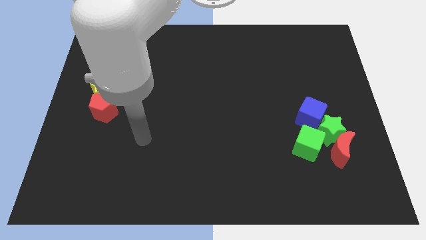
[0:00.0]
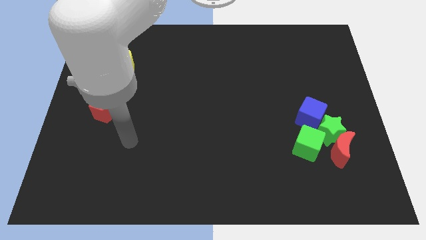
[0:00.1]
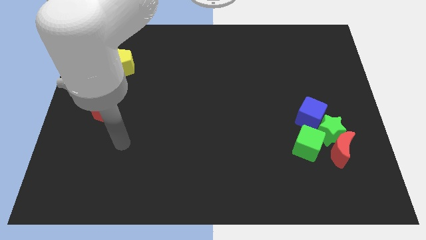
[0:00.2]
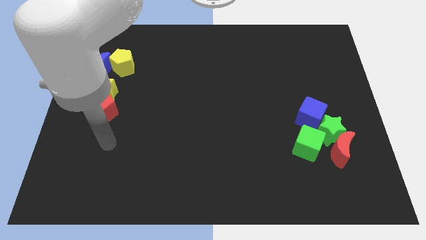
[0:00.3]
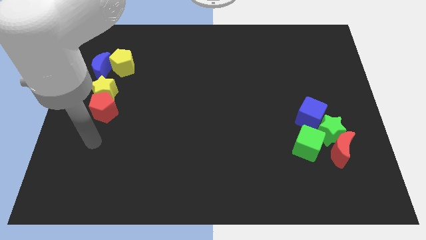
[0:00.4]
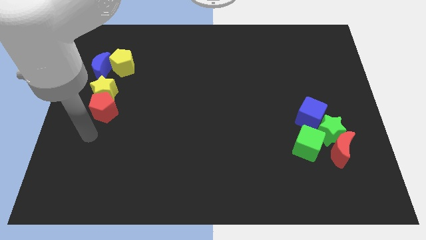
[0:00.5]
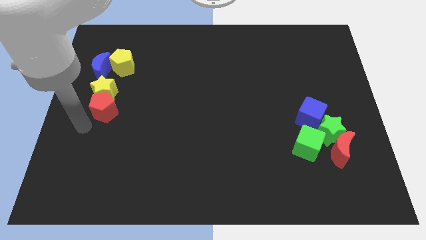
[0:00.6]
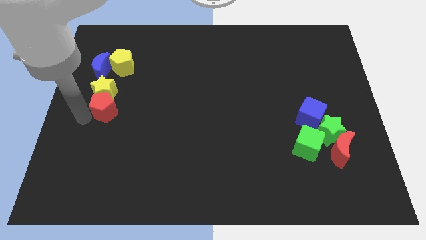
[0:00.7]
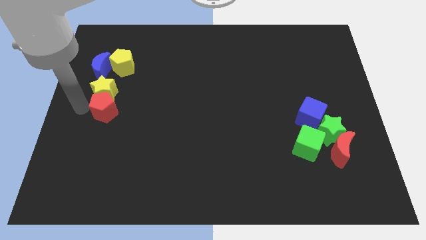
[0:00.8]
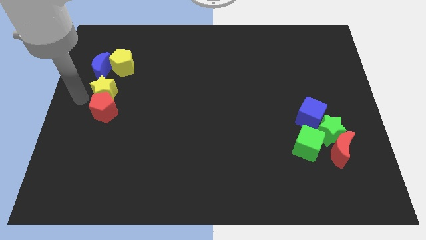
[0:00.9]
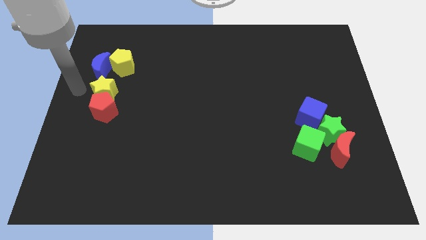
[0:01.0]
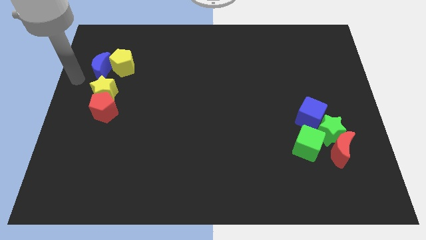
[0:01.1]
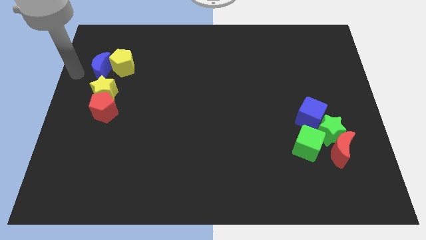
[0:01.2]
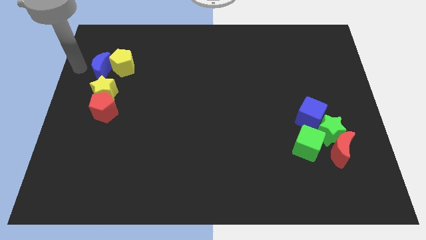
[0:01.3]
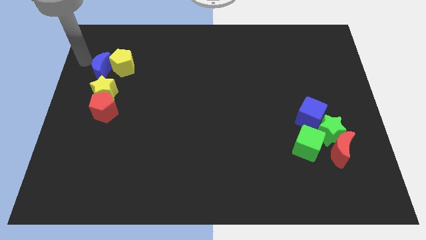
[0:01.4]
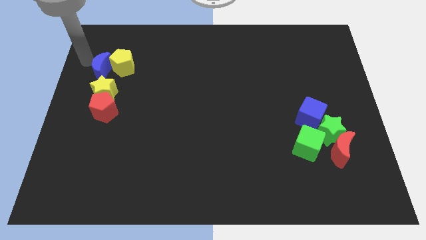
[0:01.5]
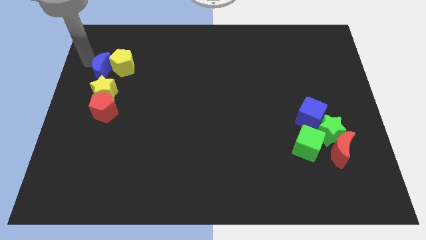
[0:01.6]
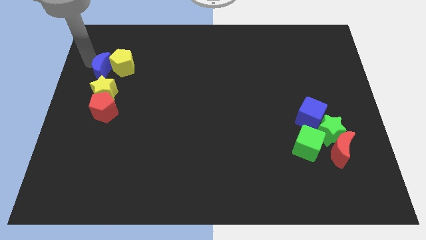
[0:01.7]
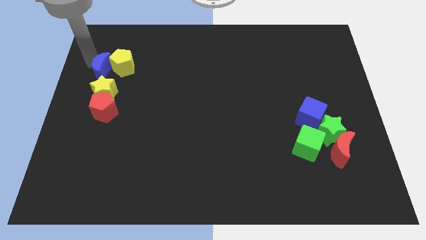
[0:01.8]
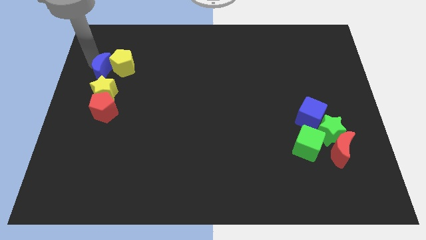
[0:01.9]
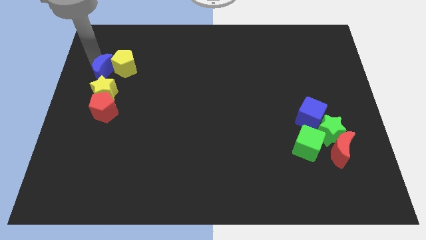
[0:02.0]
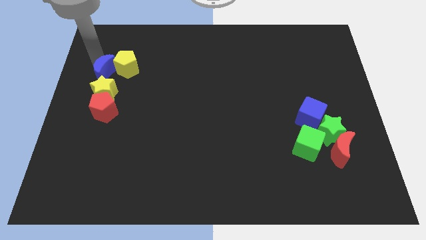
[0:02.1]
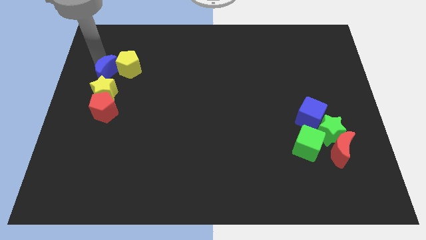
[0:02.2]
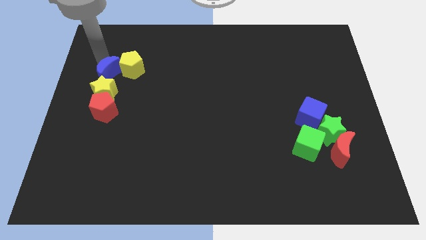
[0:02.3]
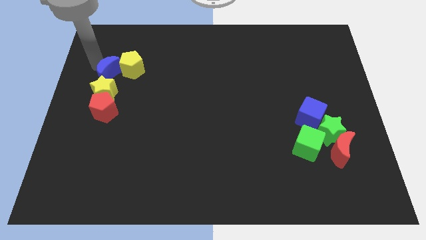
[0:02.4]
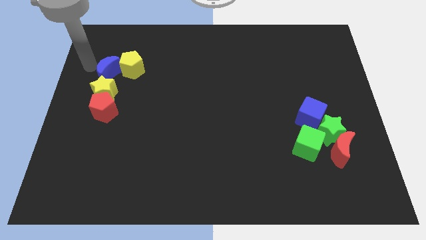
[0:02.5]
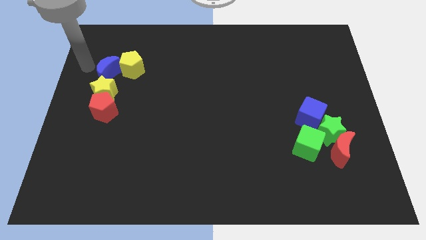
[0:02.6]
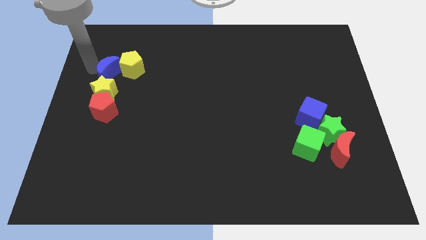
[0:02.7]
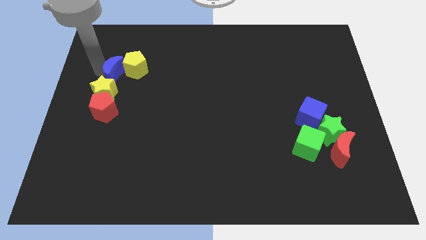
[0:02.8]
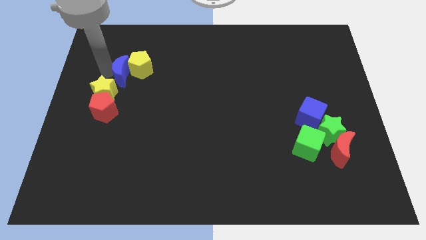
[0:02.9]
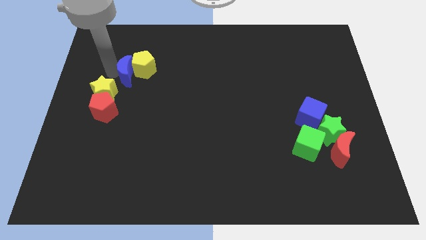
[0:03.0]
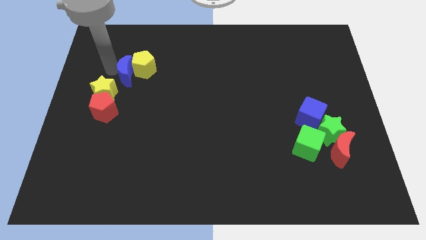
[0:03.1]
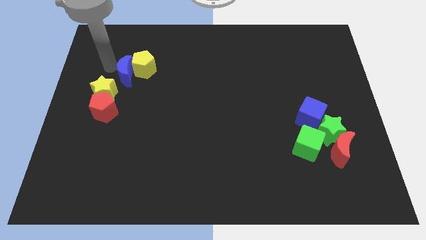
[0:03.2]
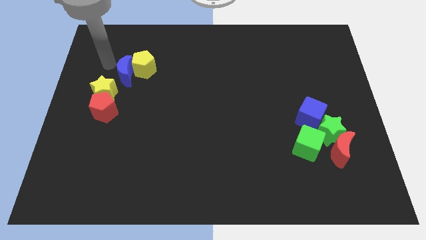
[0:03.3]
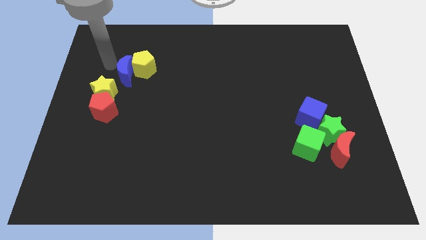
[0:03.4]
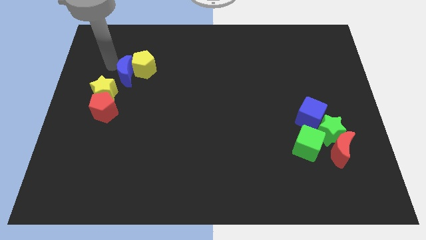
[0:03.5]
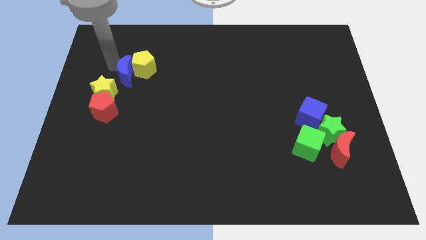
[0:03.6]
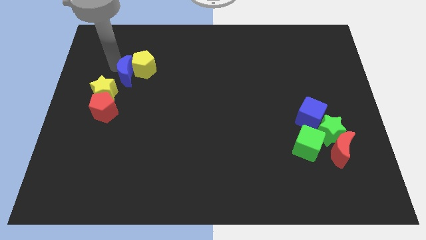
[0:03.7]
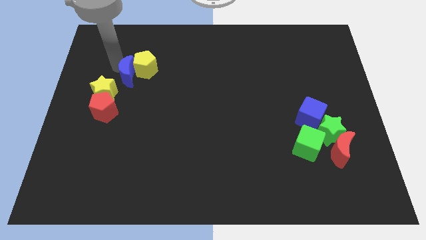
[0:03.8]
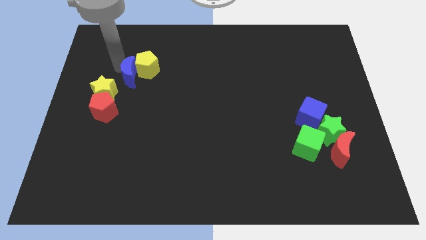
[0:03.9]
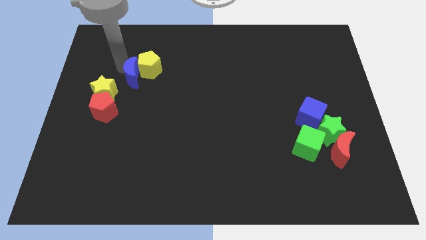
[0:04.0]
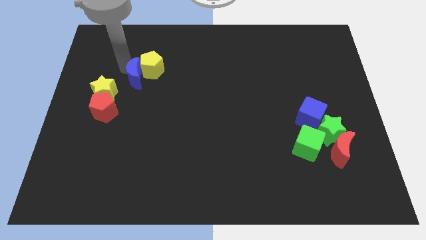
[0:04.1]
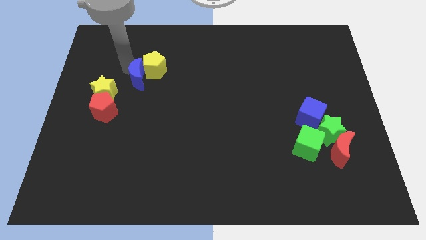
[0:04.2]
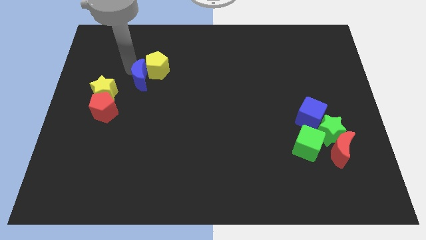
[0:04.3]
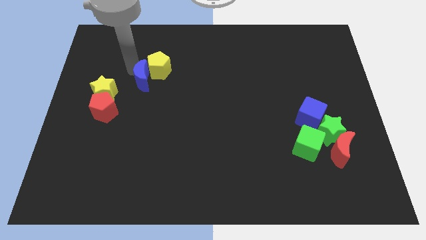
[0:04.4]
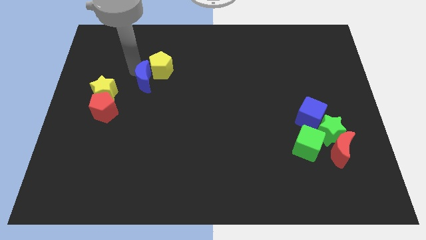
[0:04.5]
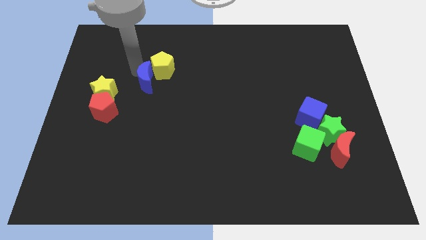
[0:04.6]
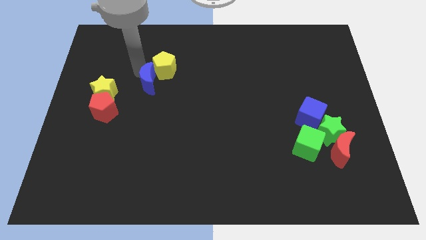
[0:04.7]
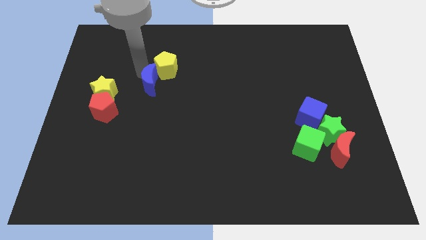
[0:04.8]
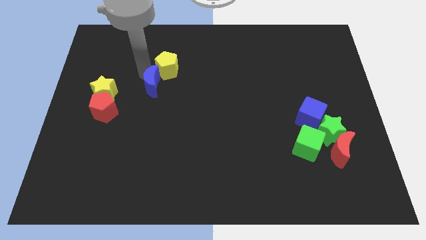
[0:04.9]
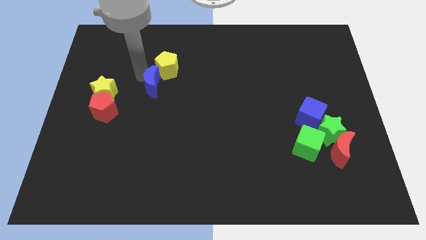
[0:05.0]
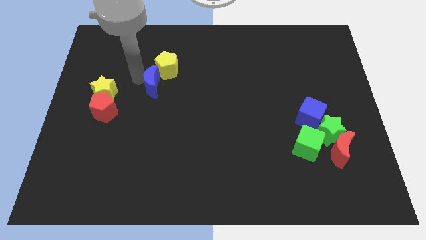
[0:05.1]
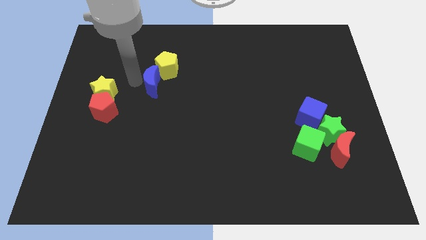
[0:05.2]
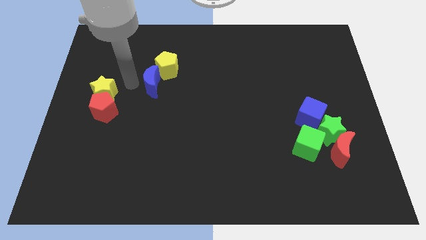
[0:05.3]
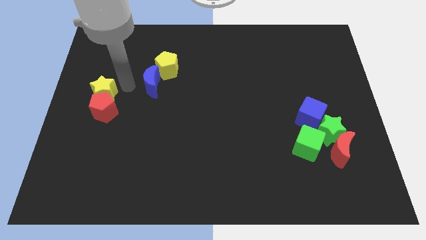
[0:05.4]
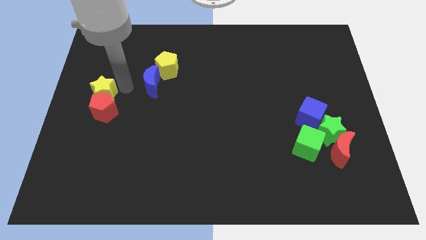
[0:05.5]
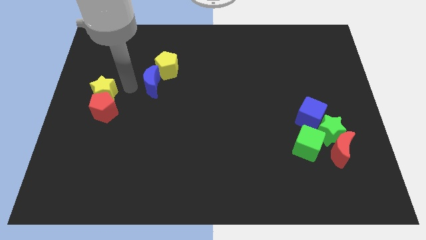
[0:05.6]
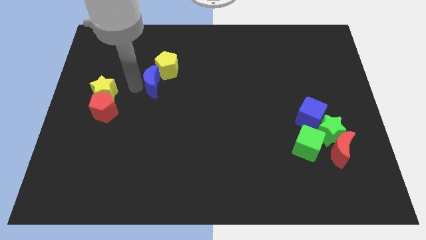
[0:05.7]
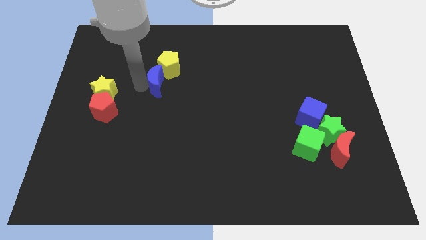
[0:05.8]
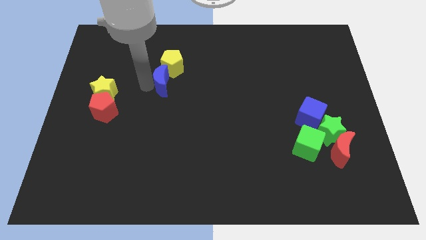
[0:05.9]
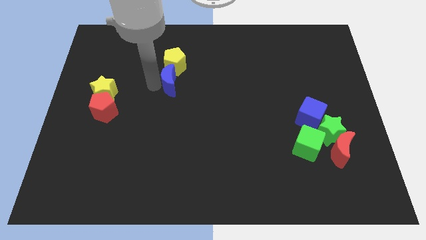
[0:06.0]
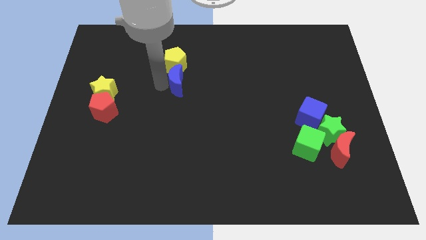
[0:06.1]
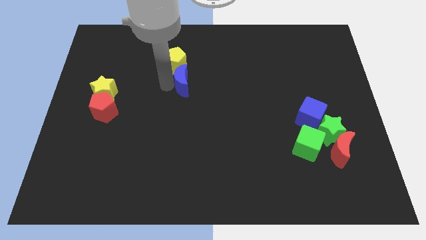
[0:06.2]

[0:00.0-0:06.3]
move the blue moon to the right

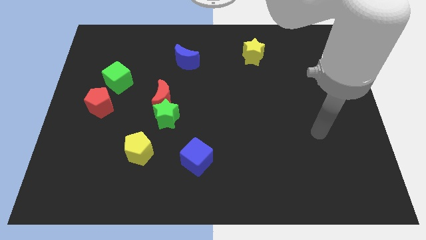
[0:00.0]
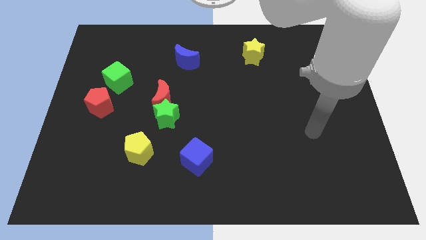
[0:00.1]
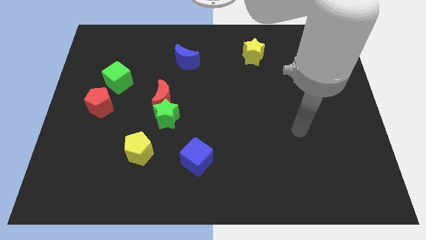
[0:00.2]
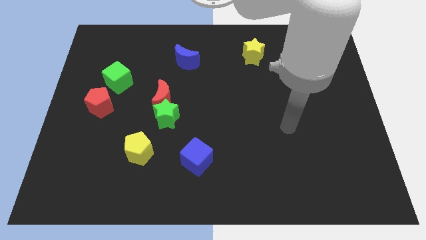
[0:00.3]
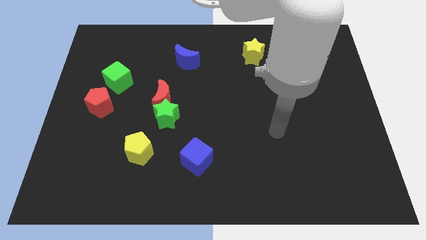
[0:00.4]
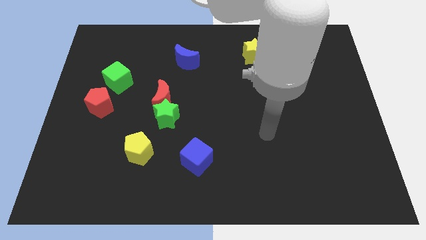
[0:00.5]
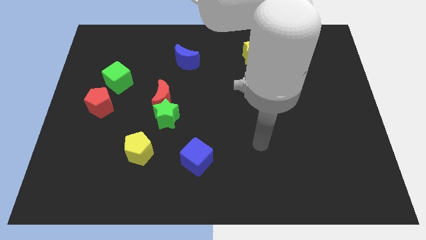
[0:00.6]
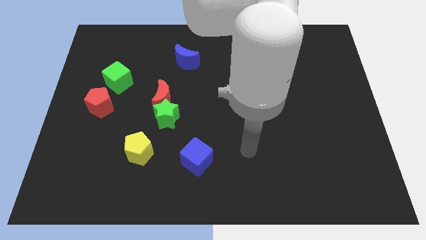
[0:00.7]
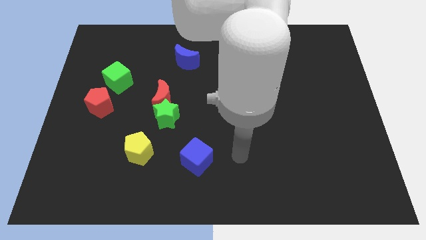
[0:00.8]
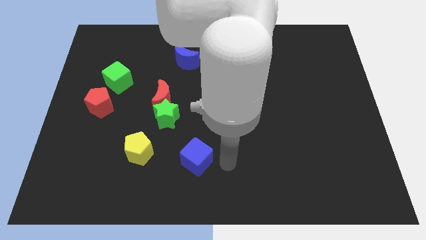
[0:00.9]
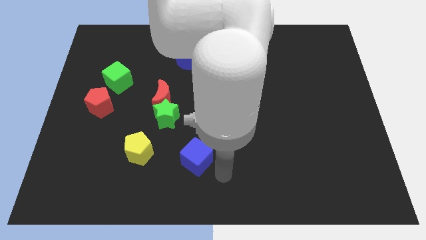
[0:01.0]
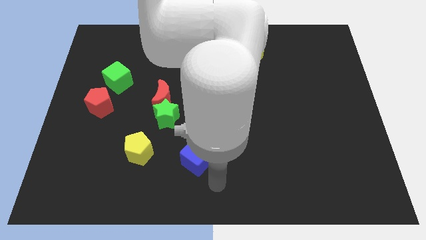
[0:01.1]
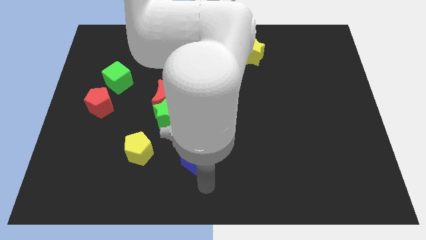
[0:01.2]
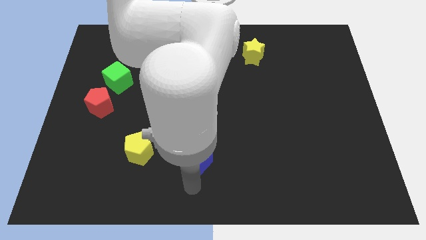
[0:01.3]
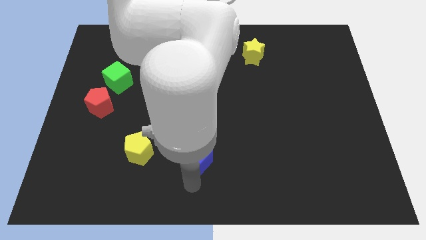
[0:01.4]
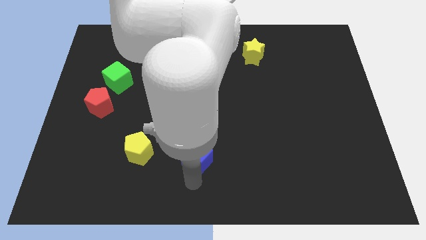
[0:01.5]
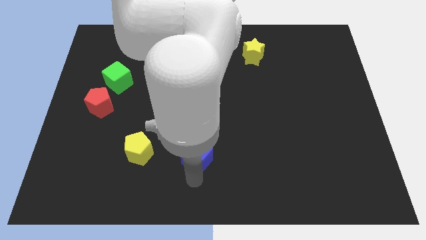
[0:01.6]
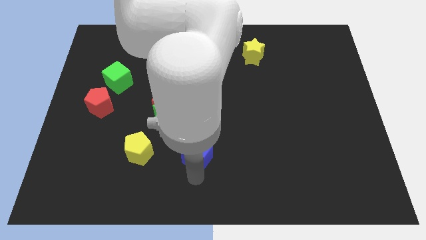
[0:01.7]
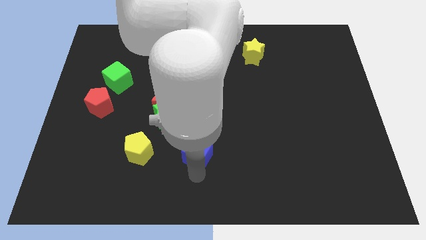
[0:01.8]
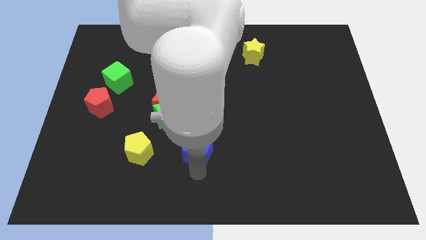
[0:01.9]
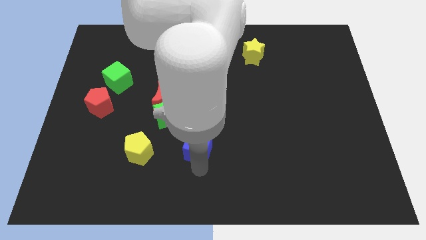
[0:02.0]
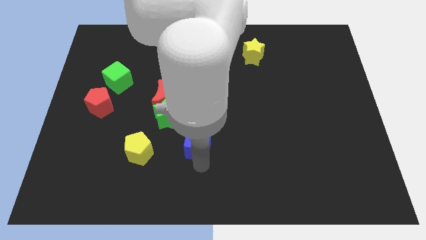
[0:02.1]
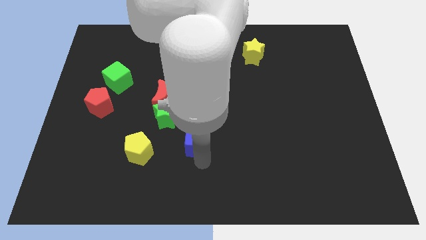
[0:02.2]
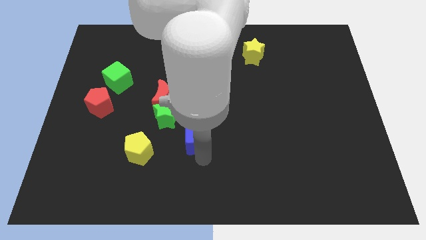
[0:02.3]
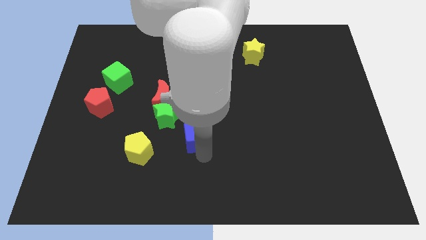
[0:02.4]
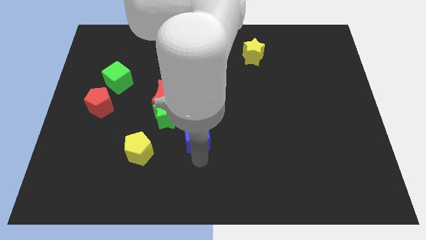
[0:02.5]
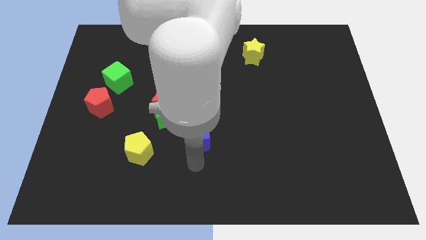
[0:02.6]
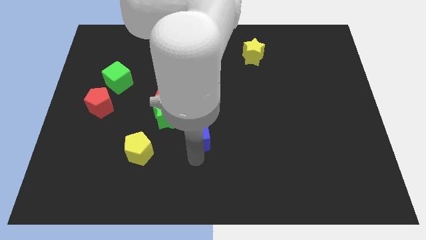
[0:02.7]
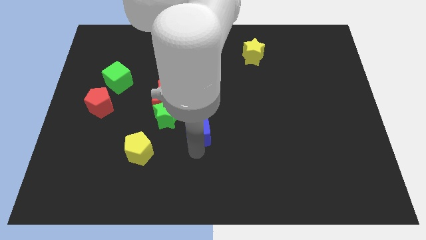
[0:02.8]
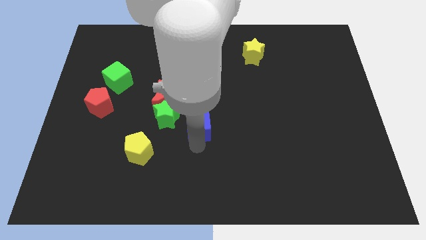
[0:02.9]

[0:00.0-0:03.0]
push the blue cube up a little bit
